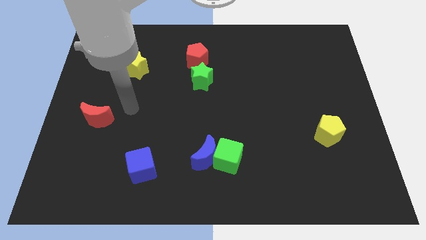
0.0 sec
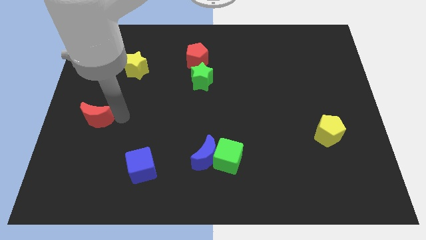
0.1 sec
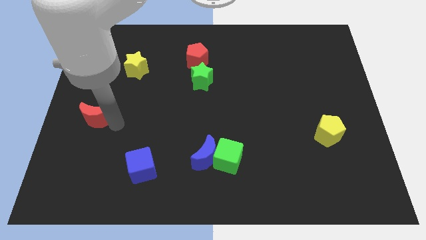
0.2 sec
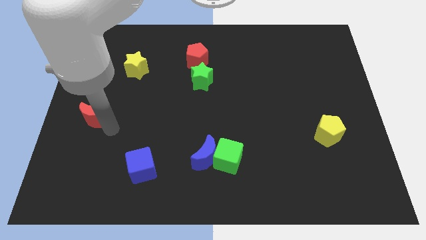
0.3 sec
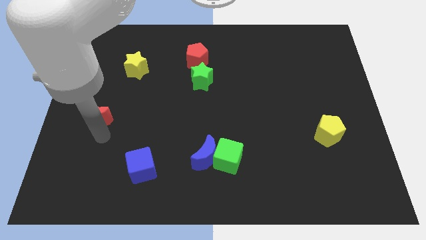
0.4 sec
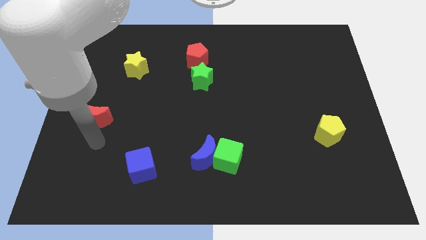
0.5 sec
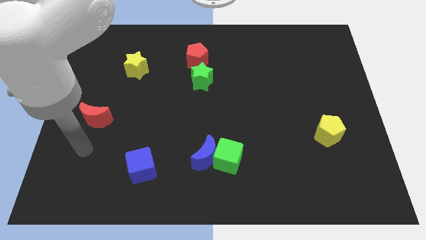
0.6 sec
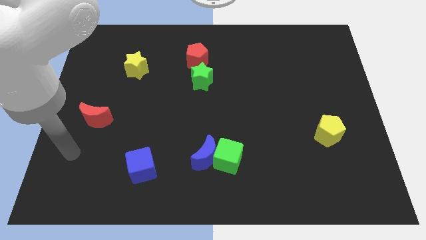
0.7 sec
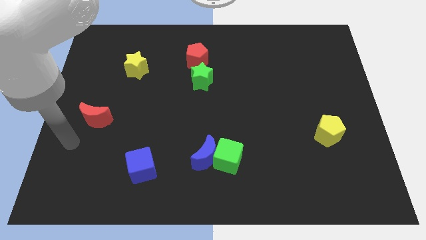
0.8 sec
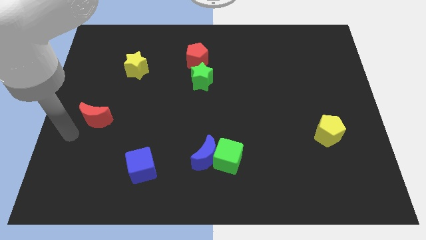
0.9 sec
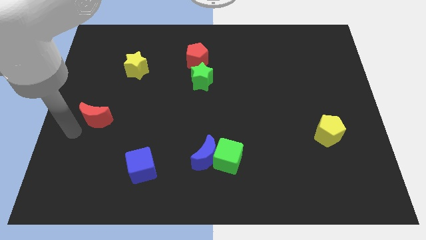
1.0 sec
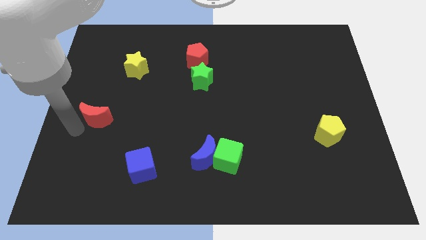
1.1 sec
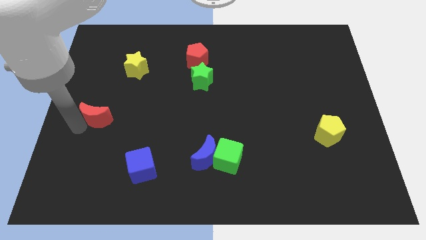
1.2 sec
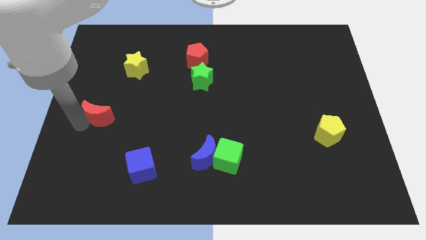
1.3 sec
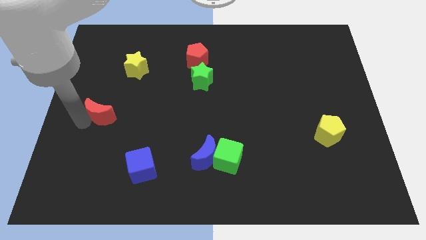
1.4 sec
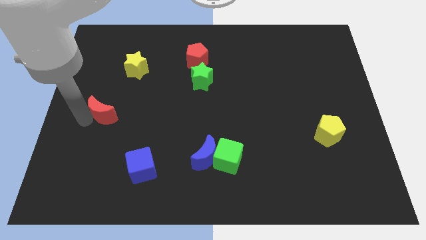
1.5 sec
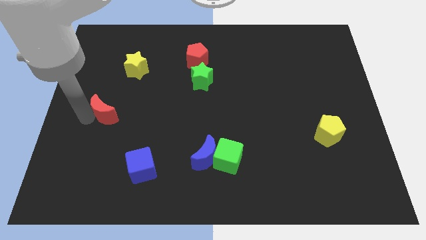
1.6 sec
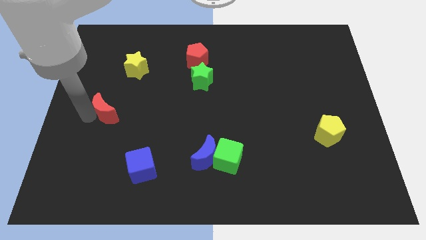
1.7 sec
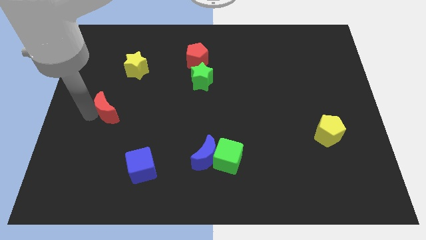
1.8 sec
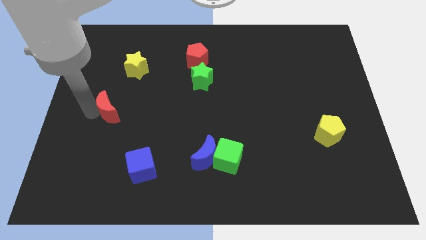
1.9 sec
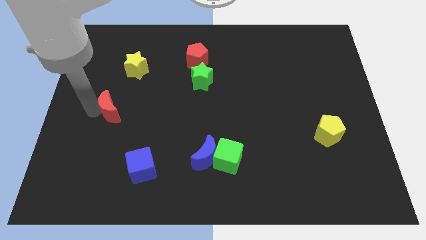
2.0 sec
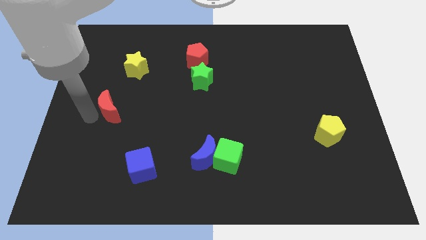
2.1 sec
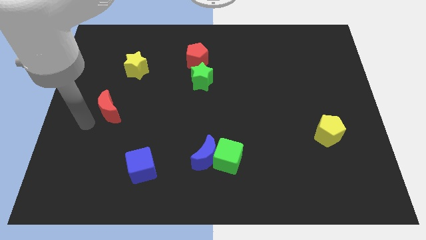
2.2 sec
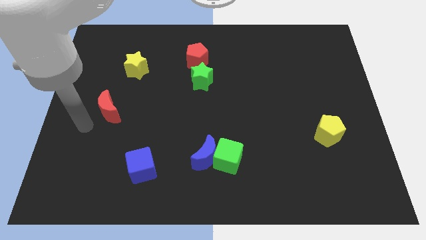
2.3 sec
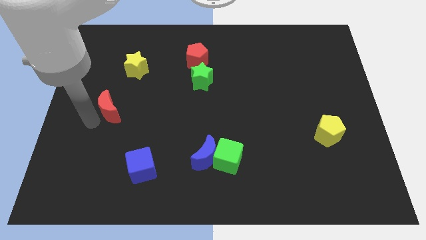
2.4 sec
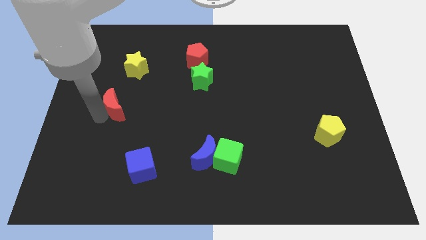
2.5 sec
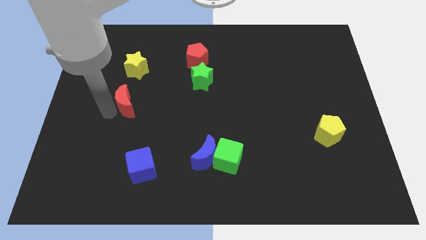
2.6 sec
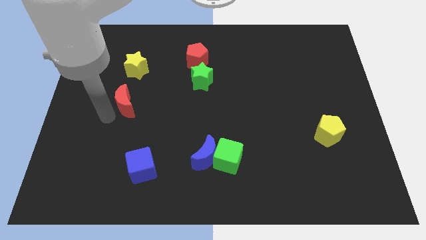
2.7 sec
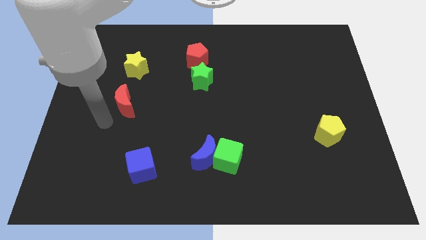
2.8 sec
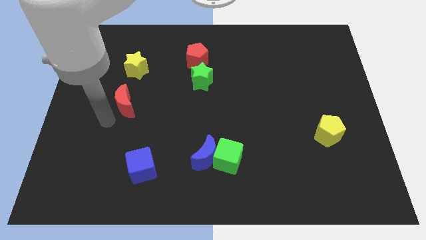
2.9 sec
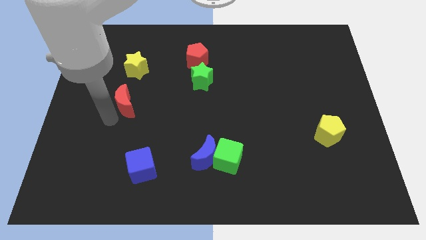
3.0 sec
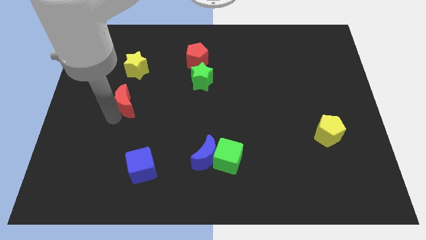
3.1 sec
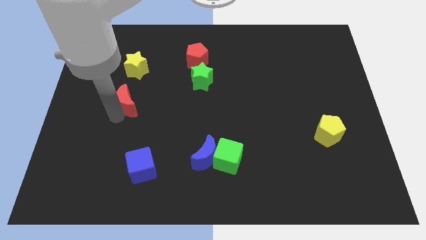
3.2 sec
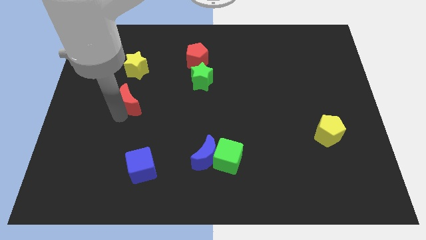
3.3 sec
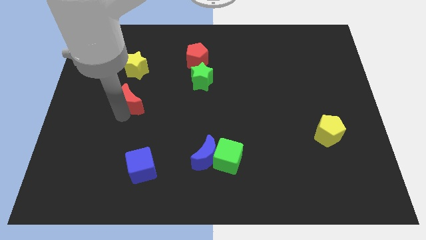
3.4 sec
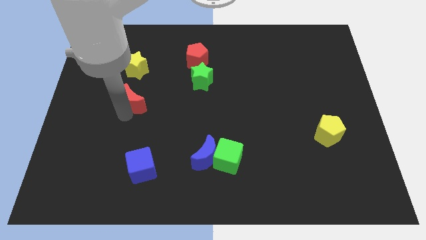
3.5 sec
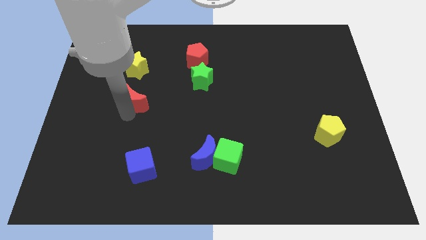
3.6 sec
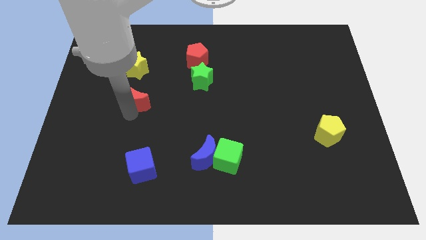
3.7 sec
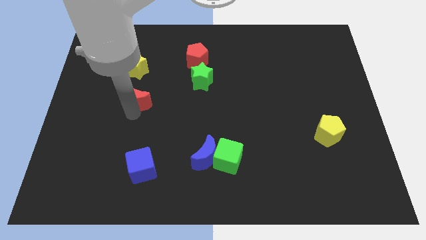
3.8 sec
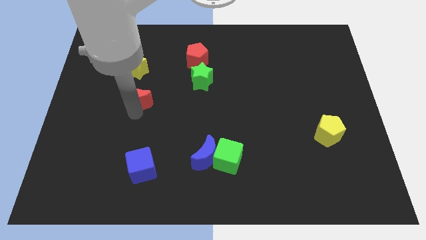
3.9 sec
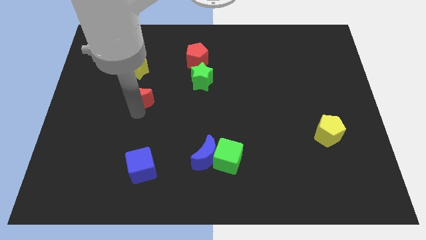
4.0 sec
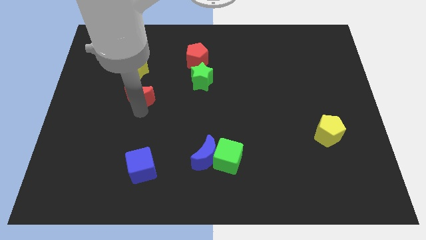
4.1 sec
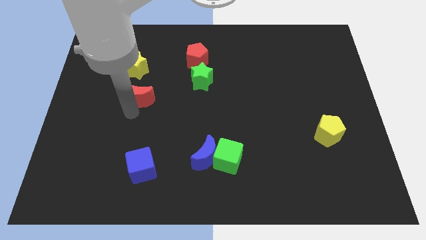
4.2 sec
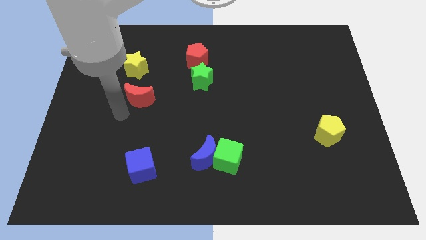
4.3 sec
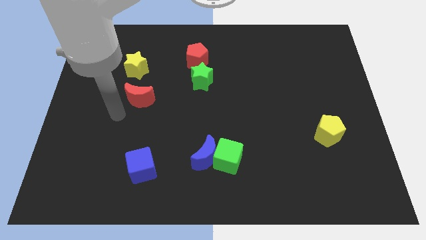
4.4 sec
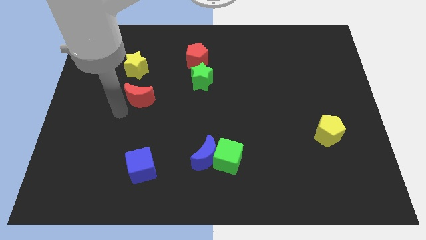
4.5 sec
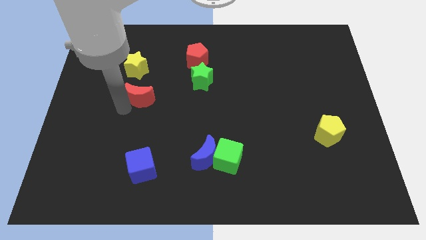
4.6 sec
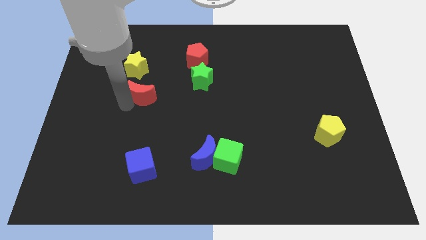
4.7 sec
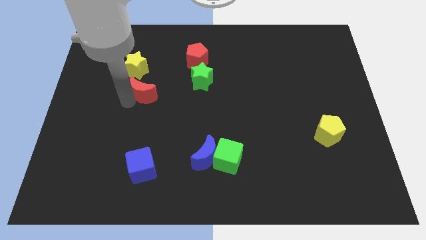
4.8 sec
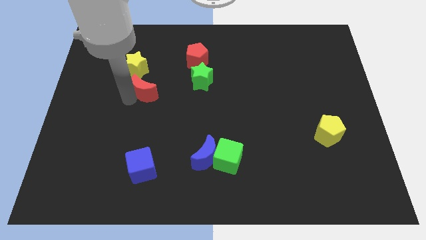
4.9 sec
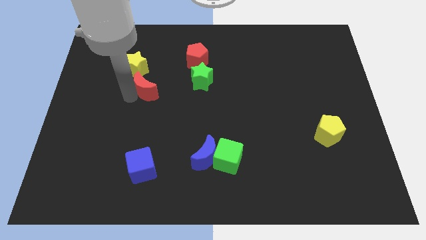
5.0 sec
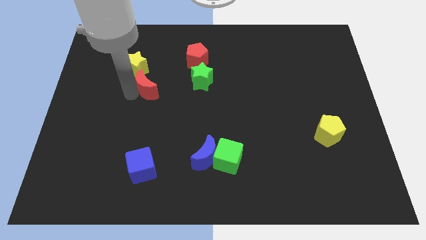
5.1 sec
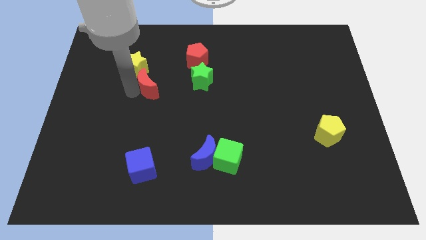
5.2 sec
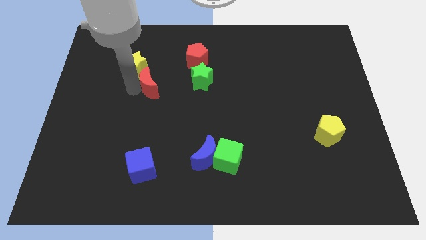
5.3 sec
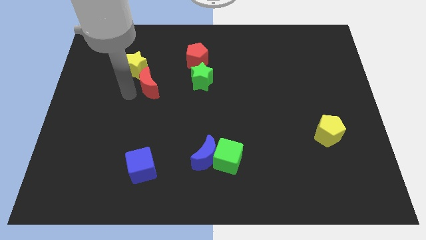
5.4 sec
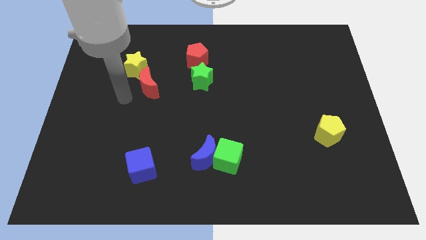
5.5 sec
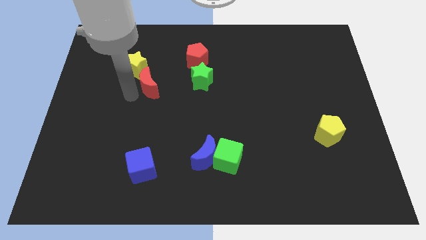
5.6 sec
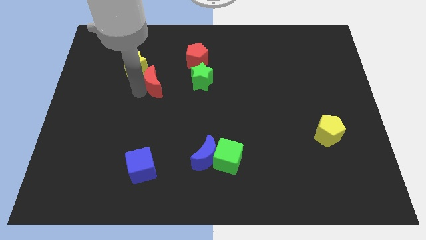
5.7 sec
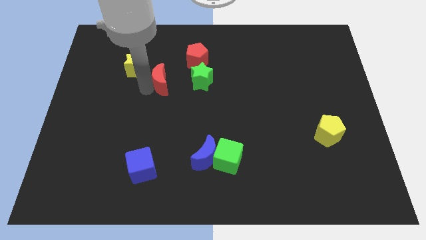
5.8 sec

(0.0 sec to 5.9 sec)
push the red moon to the bottom left of the red pentagon
